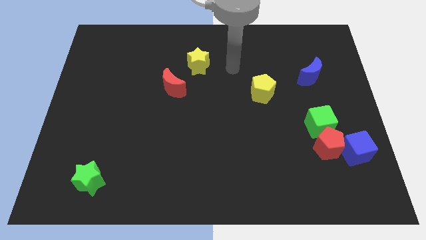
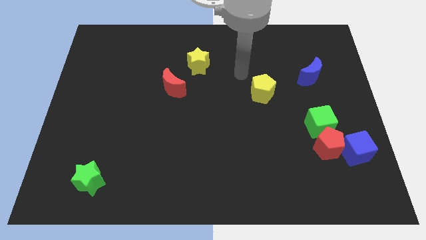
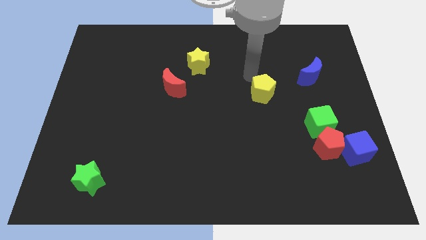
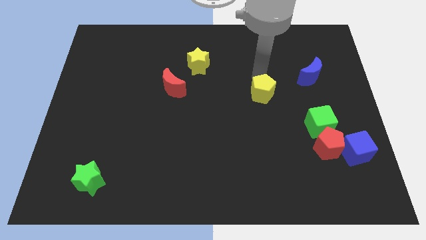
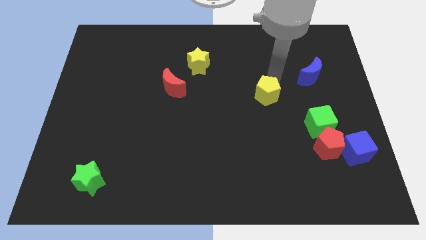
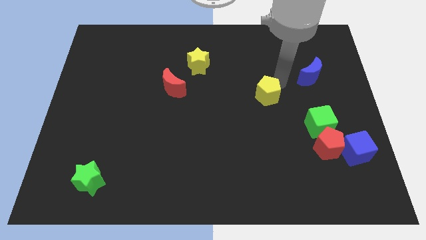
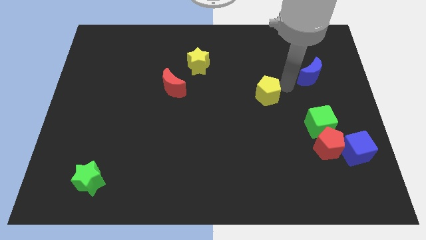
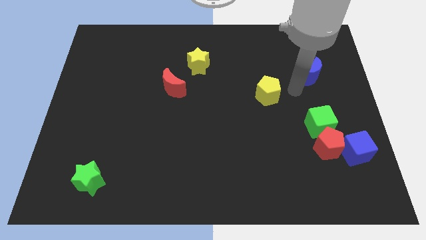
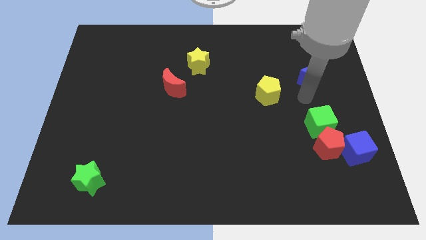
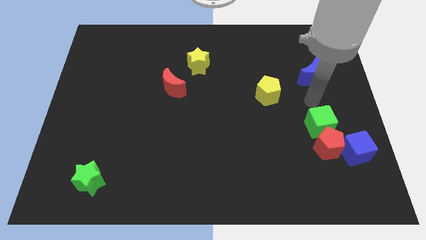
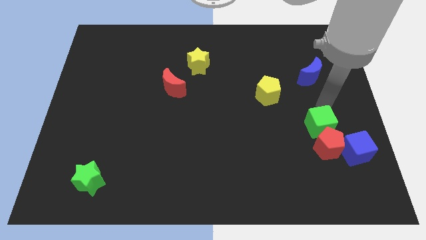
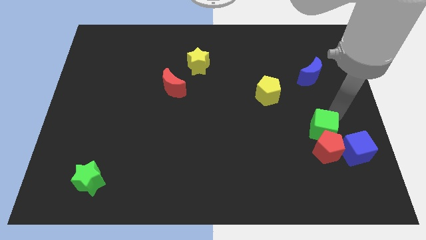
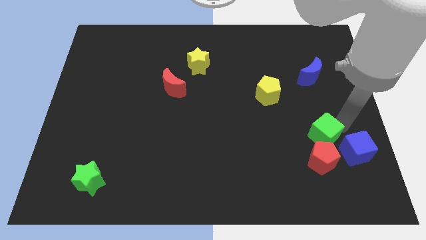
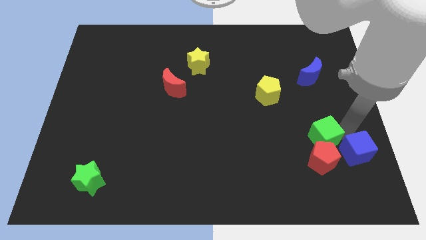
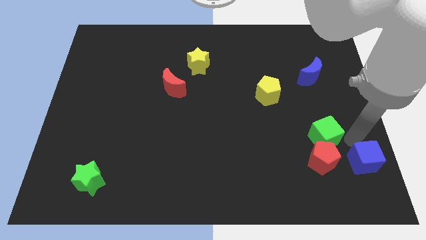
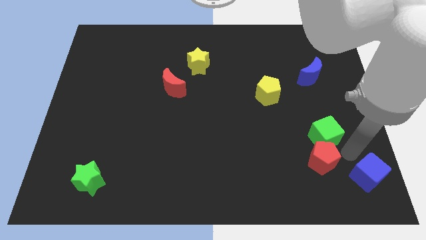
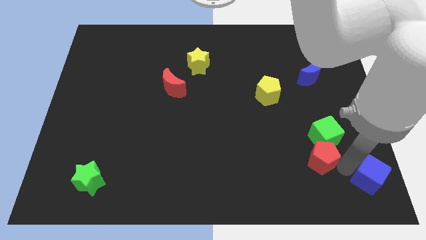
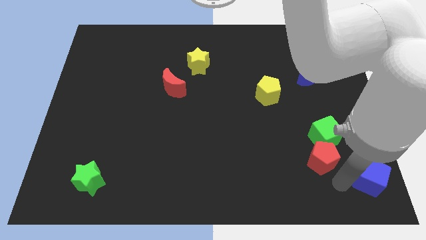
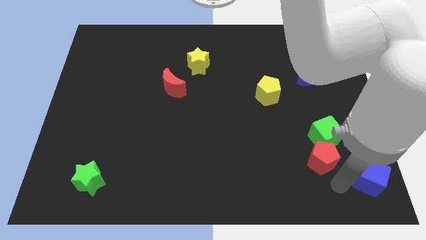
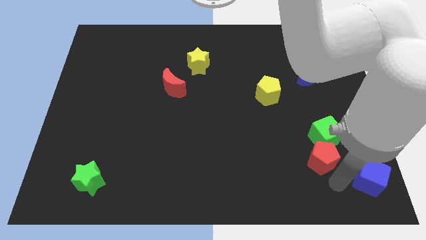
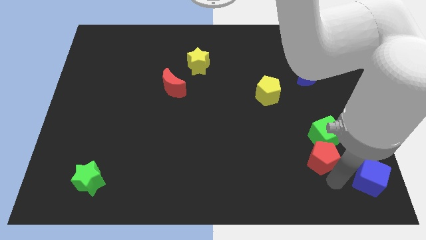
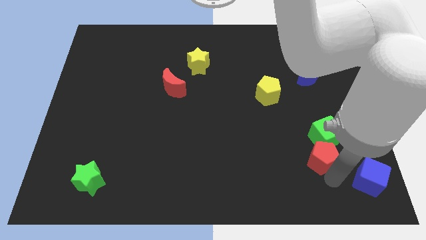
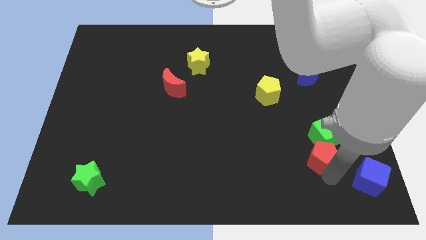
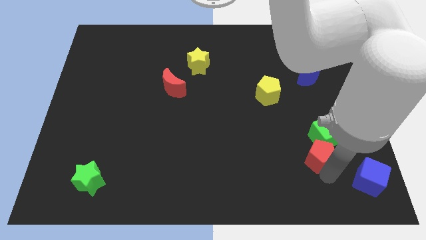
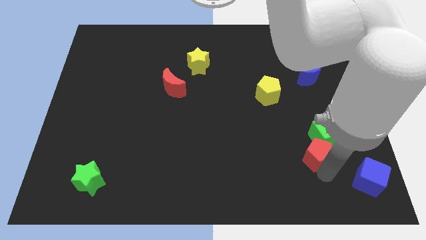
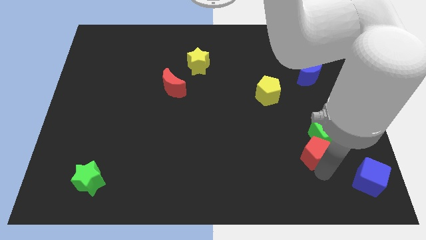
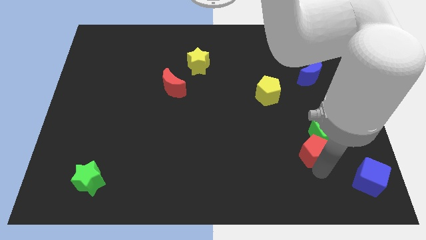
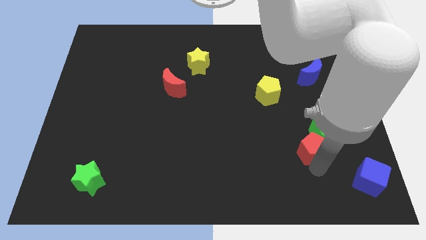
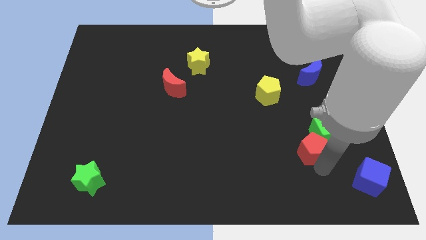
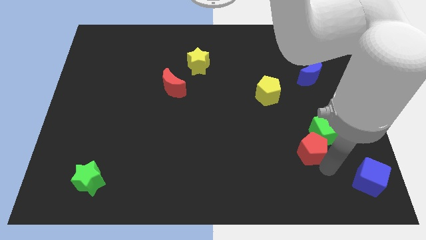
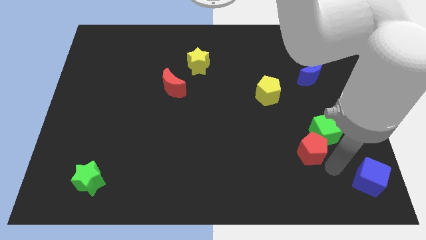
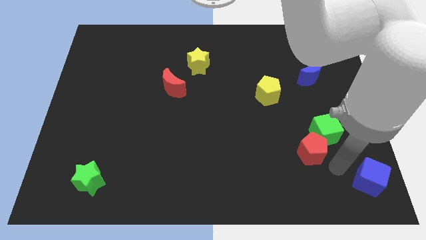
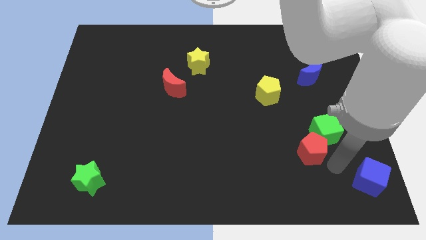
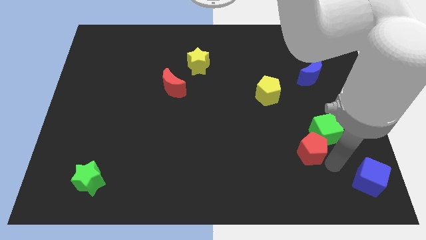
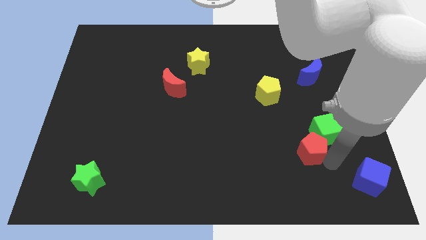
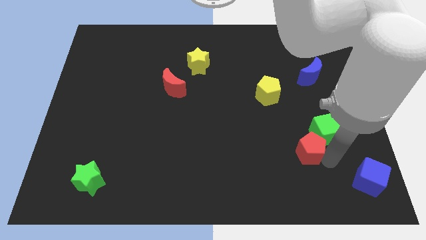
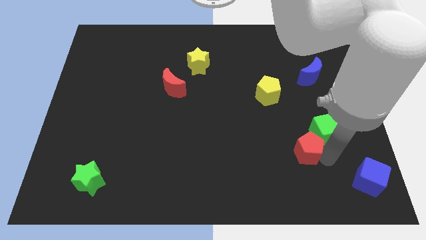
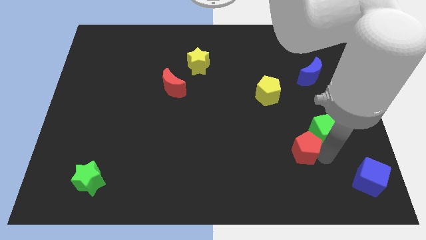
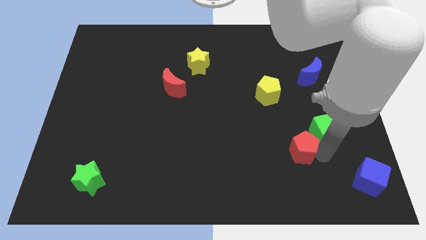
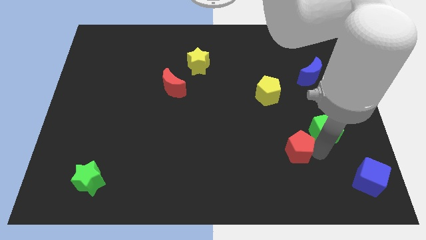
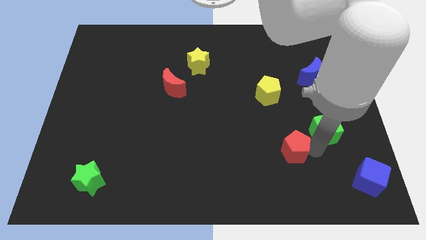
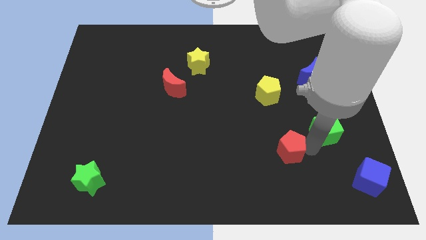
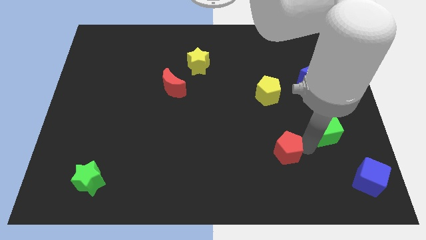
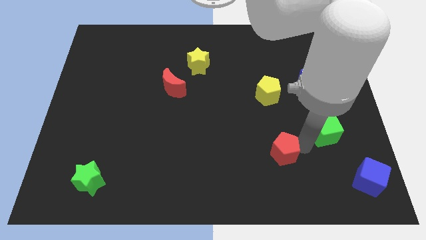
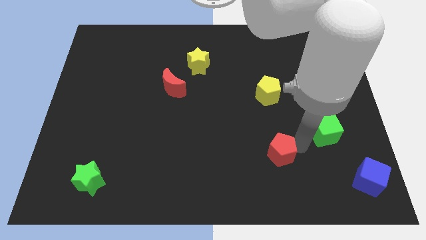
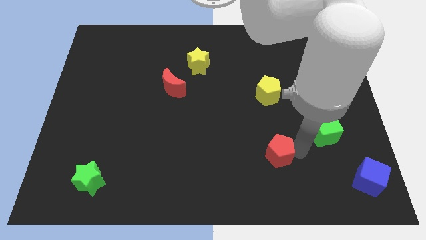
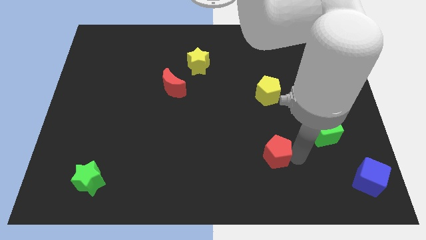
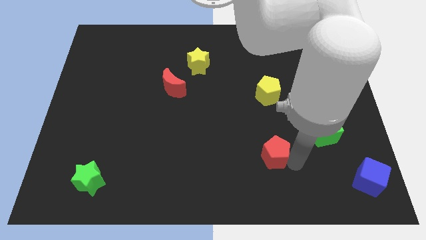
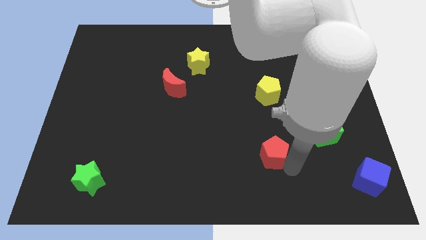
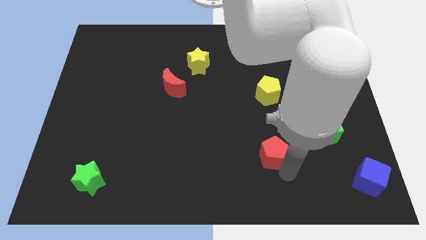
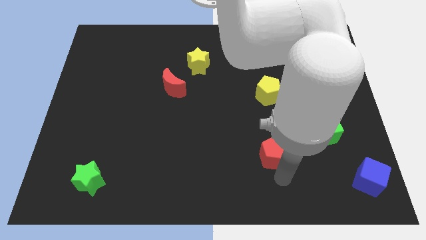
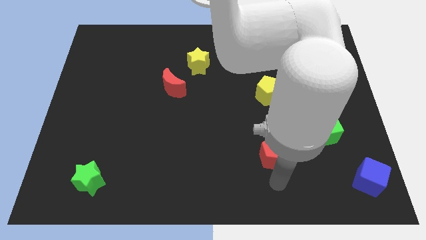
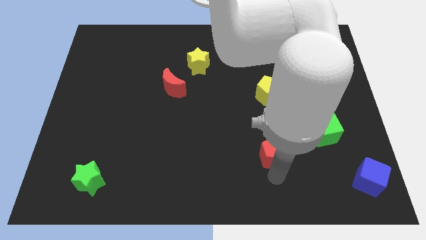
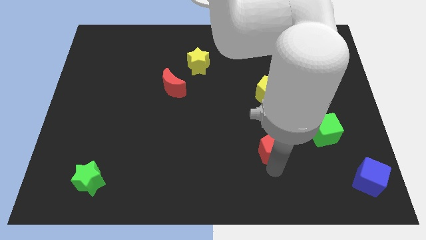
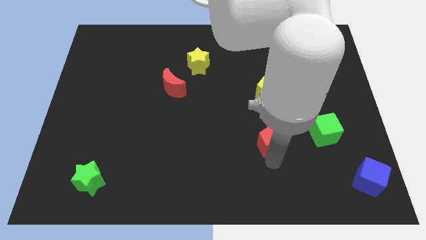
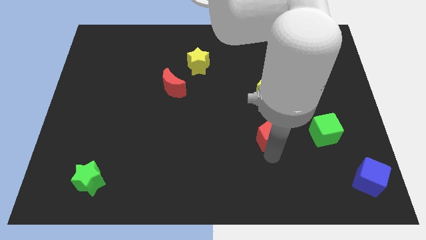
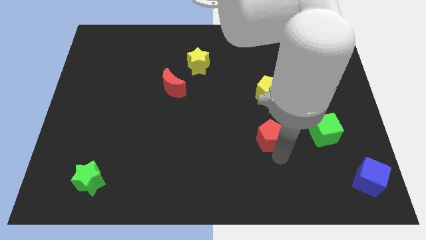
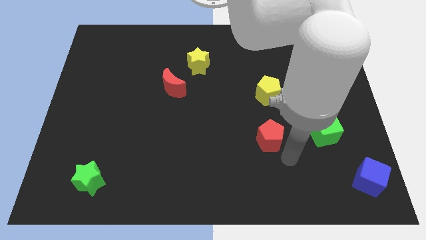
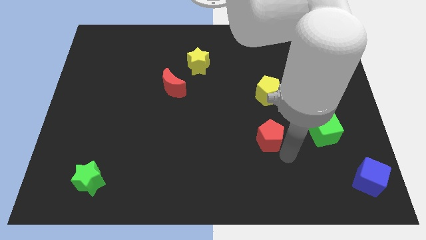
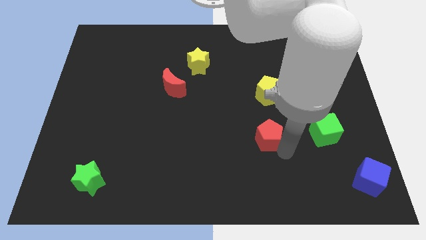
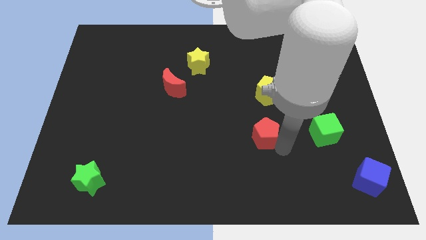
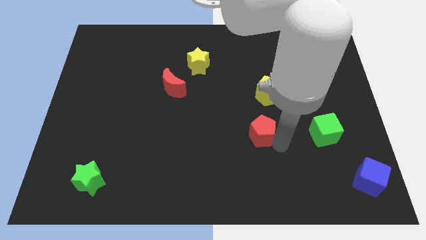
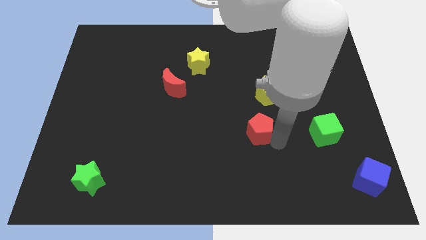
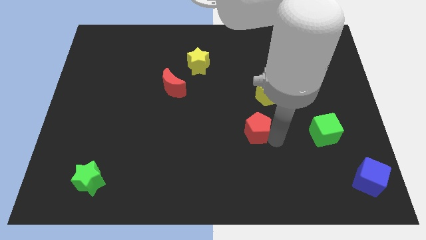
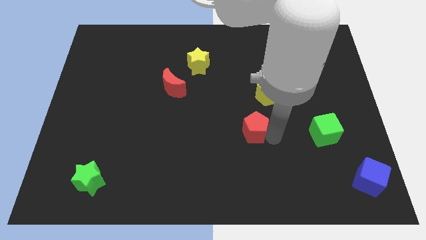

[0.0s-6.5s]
move the red pentagon to the center of the board

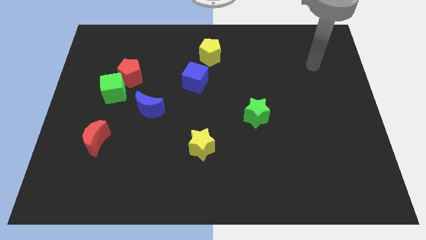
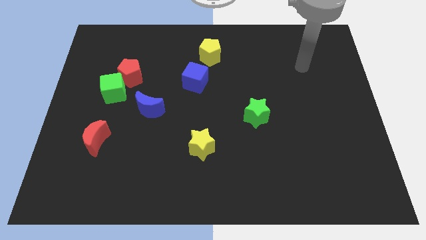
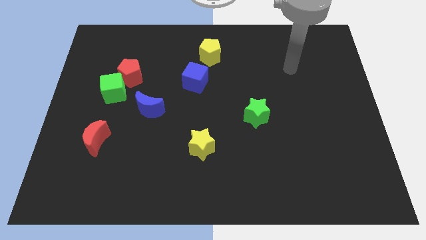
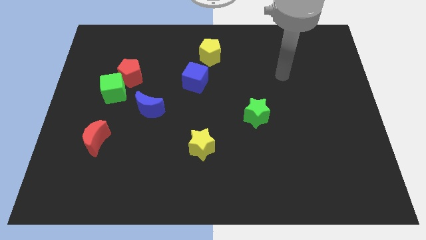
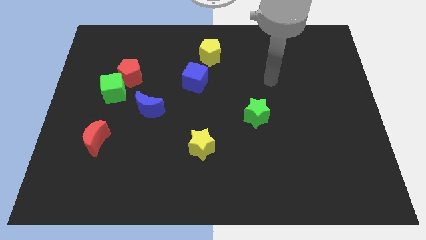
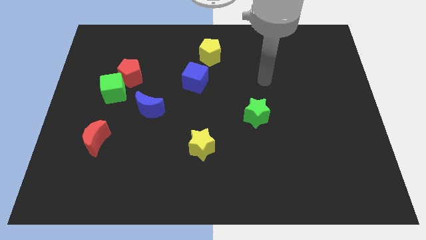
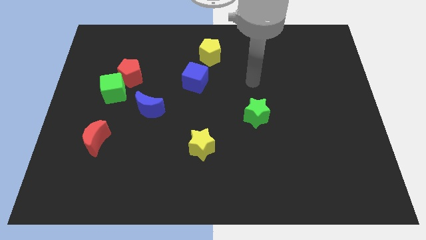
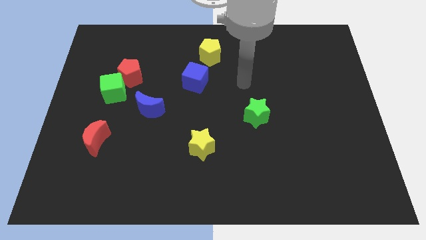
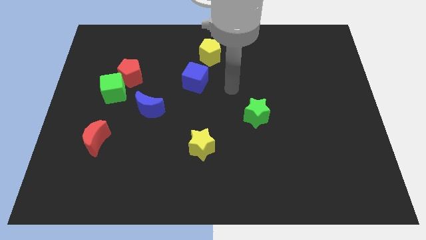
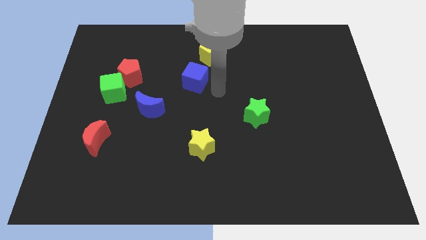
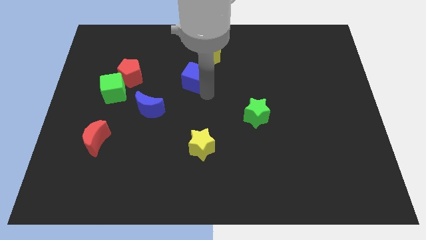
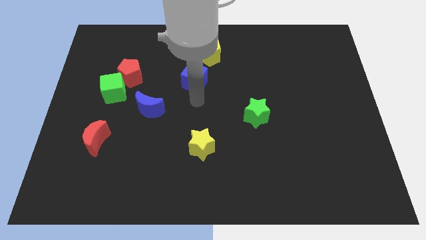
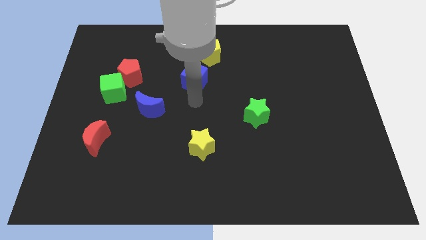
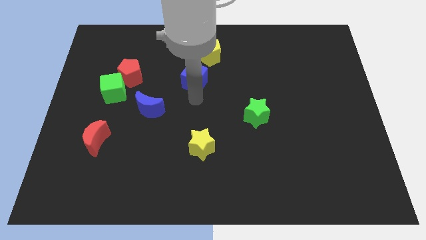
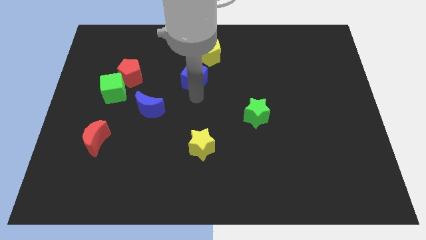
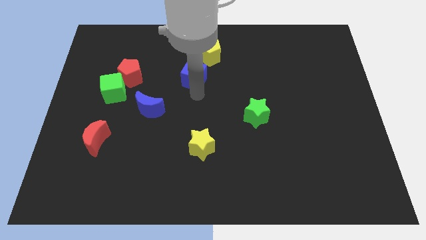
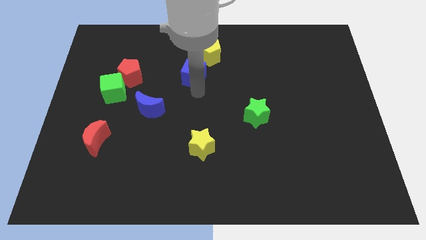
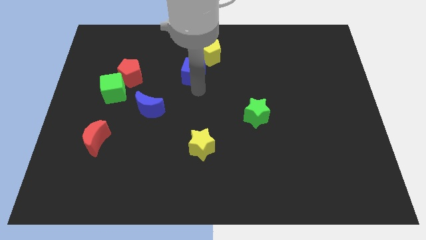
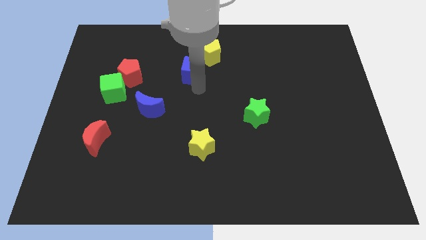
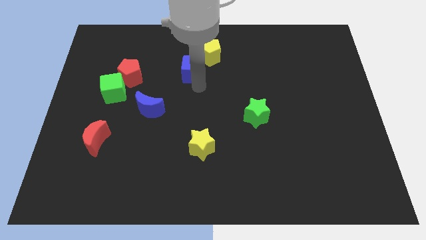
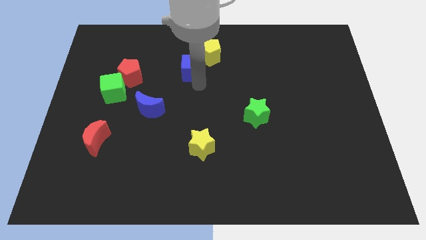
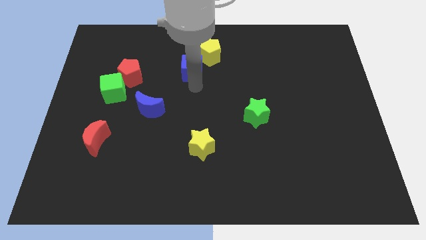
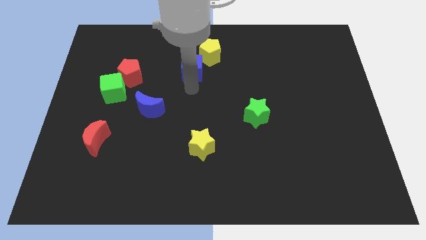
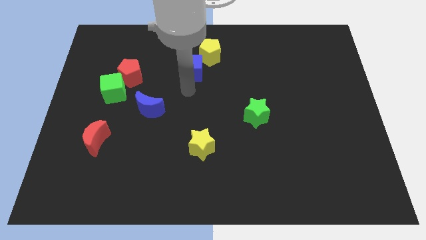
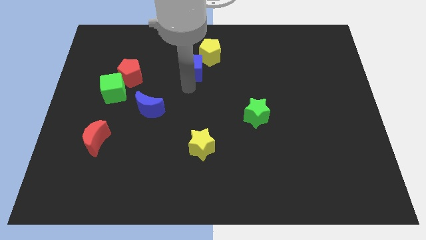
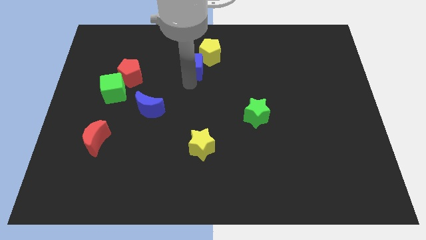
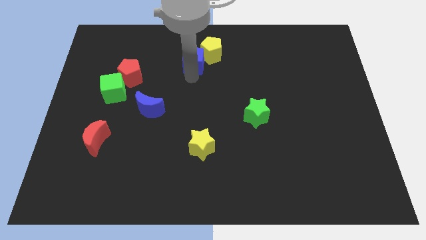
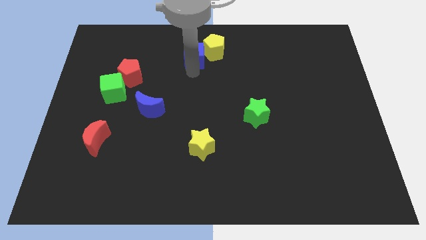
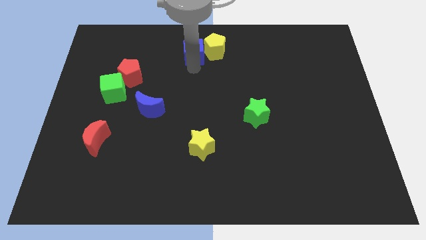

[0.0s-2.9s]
slide the blue cube to the top side
